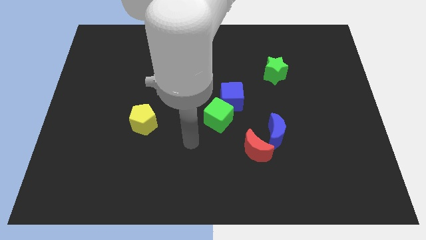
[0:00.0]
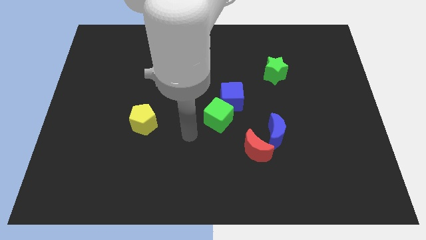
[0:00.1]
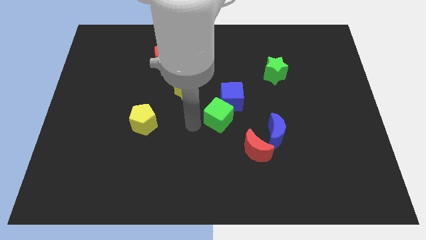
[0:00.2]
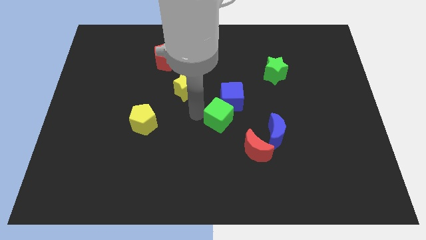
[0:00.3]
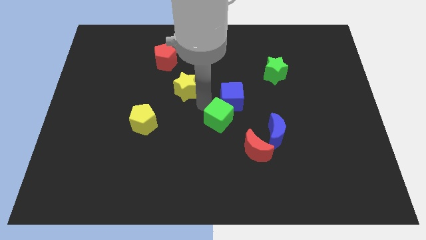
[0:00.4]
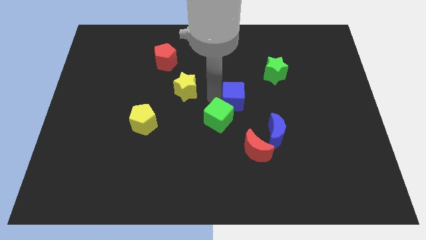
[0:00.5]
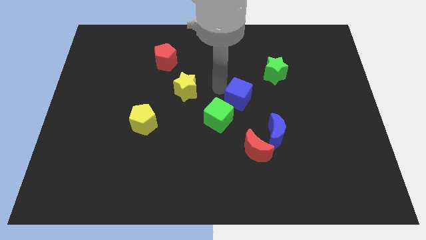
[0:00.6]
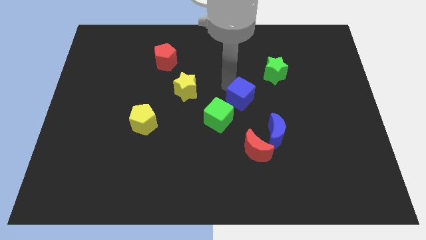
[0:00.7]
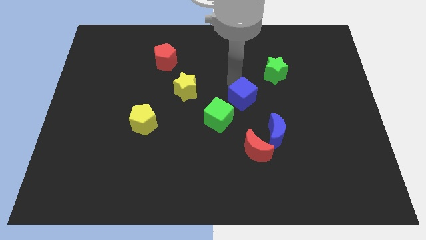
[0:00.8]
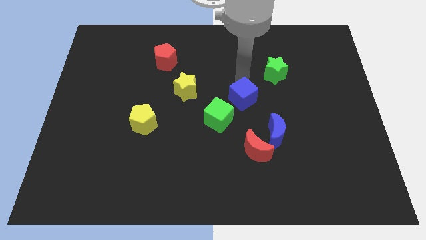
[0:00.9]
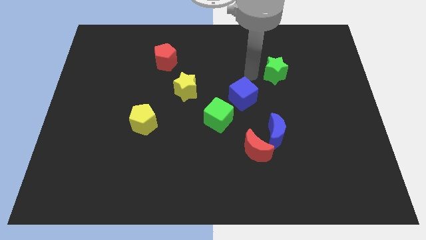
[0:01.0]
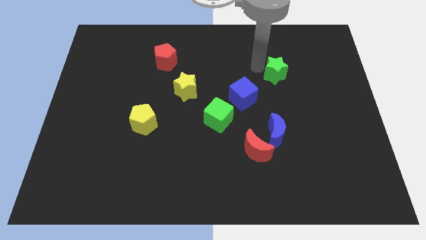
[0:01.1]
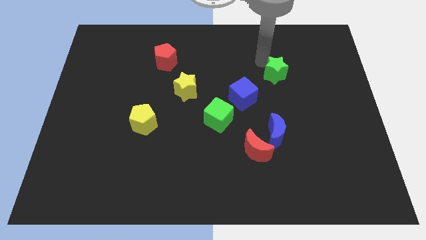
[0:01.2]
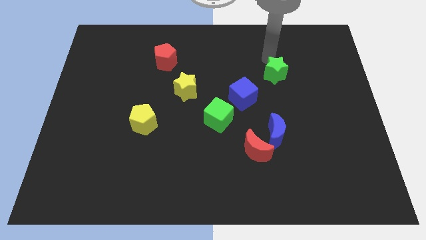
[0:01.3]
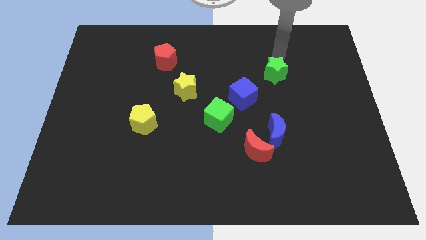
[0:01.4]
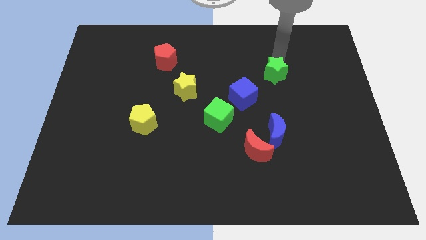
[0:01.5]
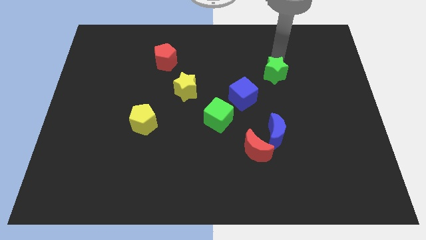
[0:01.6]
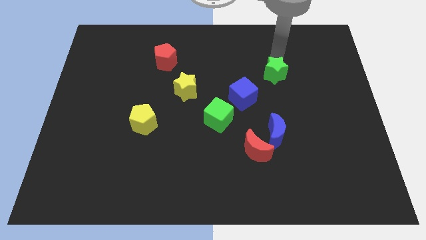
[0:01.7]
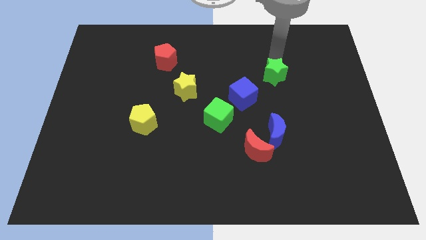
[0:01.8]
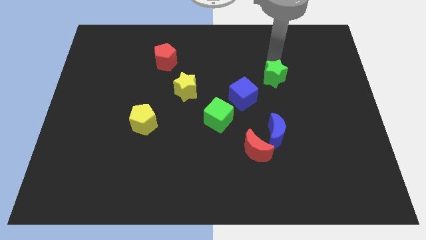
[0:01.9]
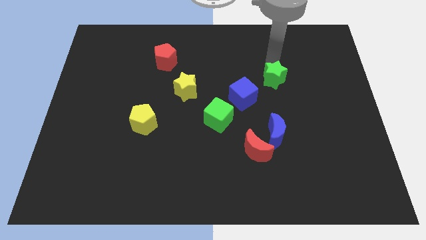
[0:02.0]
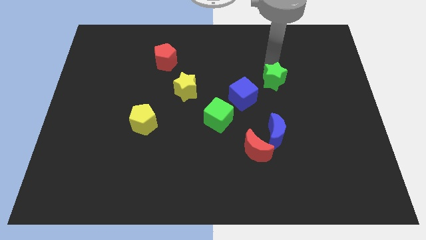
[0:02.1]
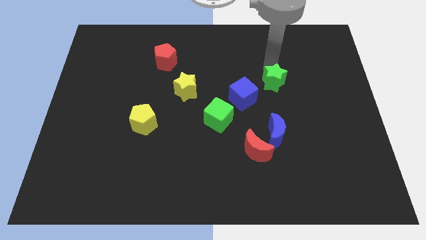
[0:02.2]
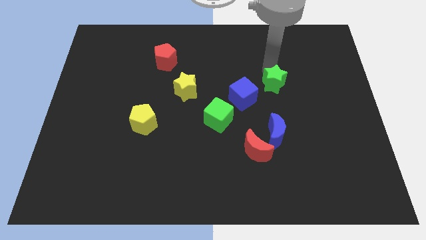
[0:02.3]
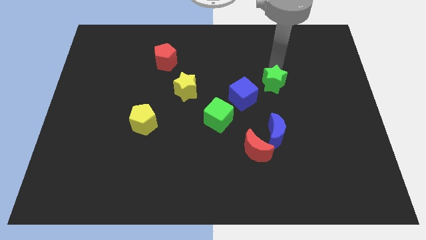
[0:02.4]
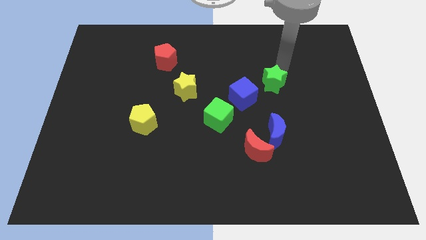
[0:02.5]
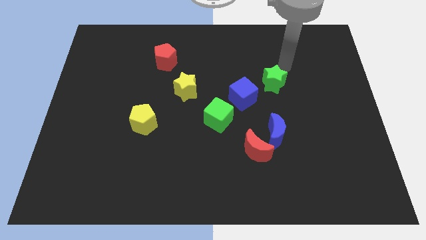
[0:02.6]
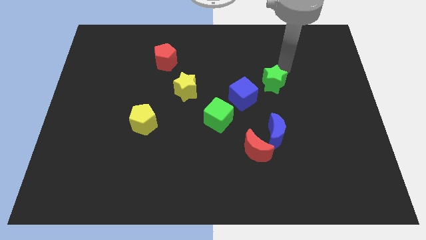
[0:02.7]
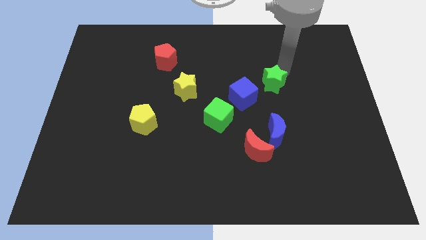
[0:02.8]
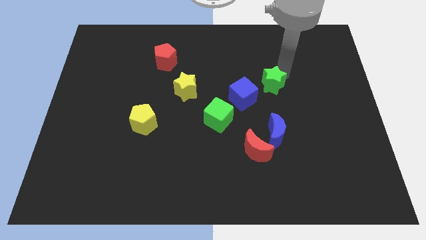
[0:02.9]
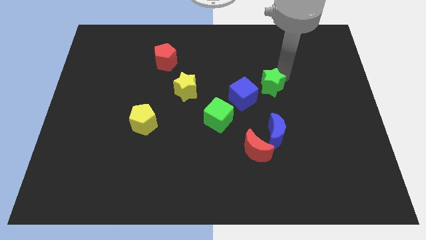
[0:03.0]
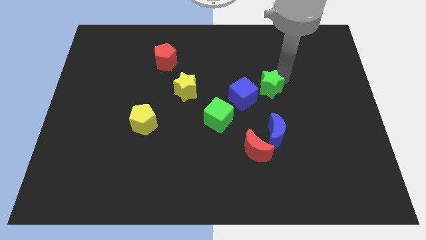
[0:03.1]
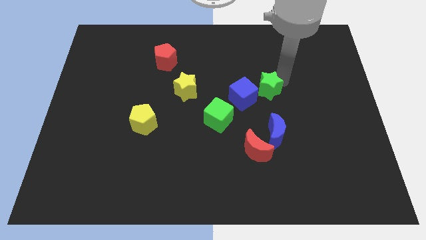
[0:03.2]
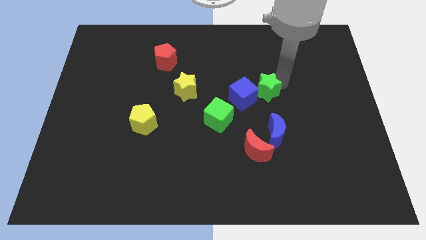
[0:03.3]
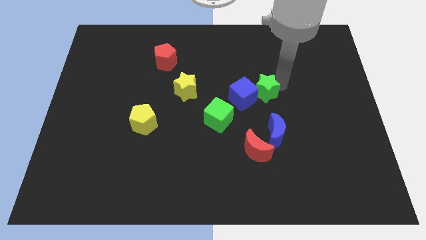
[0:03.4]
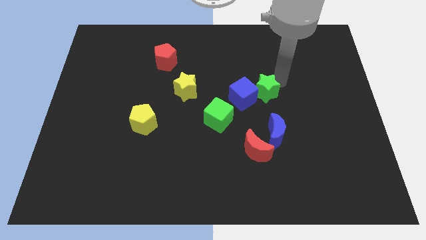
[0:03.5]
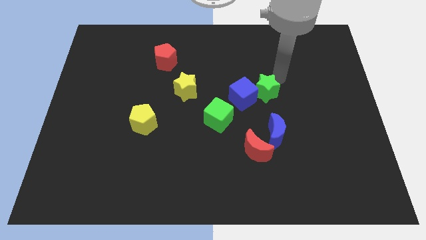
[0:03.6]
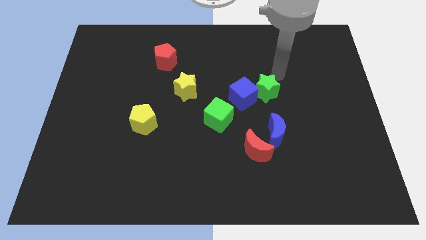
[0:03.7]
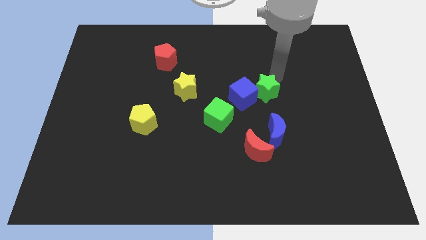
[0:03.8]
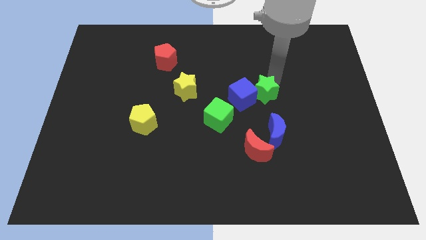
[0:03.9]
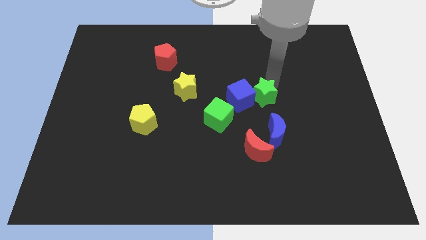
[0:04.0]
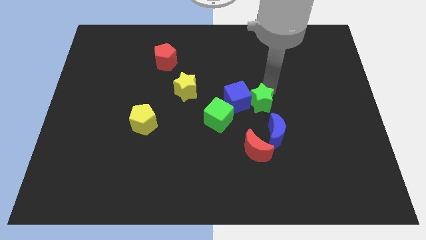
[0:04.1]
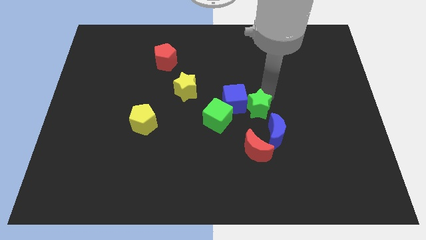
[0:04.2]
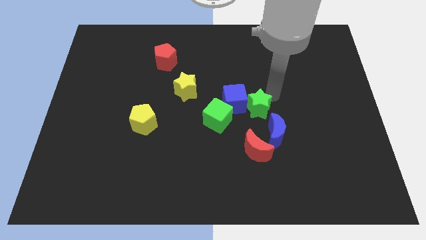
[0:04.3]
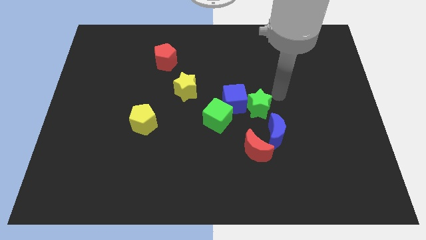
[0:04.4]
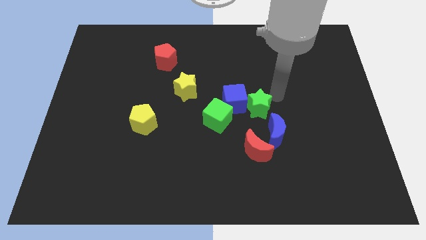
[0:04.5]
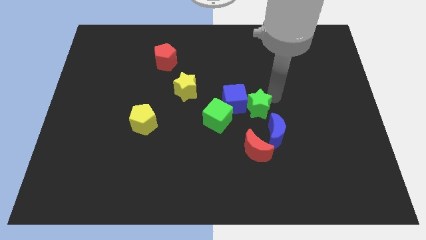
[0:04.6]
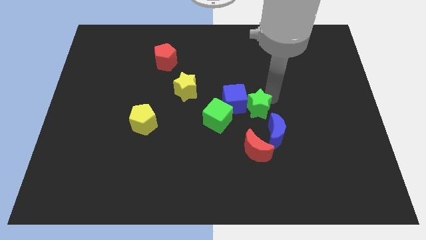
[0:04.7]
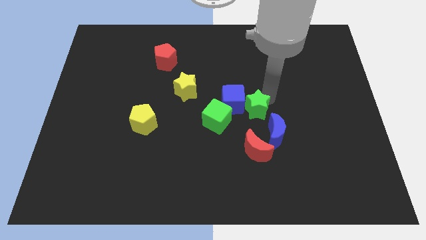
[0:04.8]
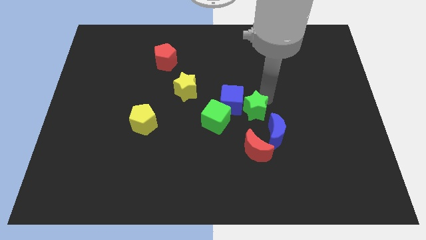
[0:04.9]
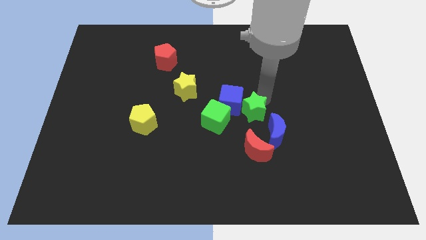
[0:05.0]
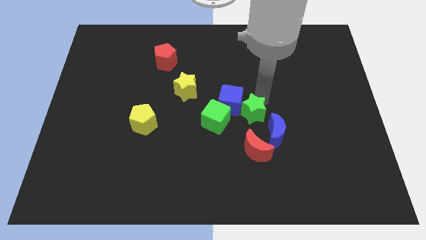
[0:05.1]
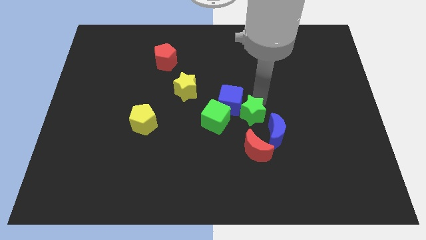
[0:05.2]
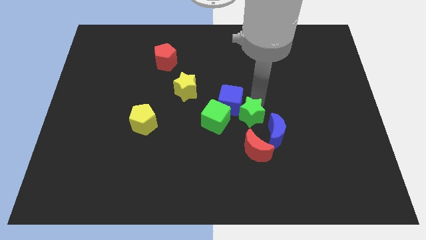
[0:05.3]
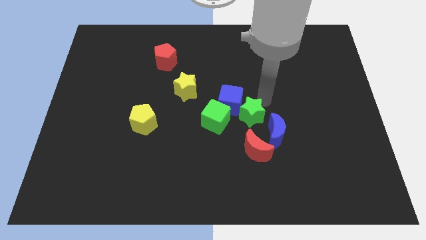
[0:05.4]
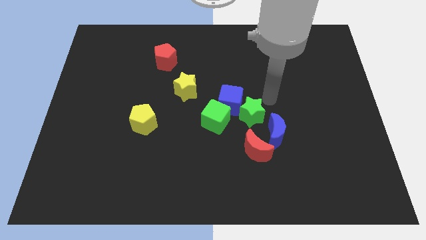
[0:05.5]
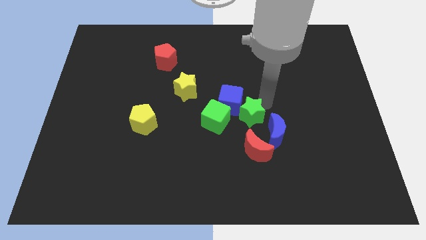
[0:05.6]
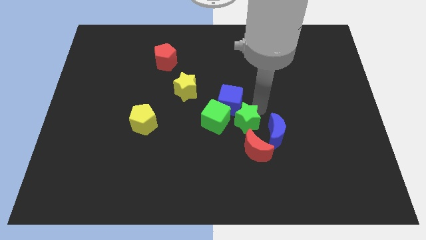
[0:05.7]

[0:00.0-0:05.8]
slide the green star just left of the blue moon

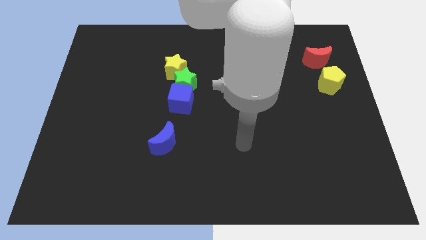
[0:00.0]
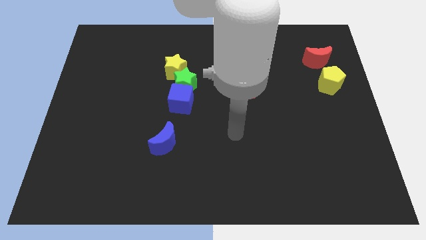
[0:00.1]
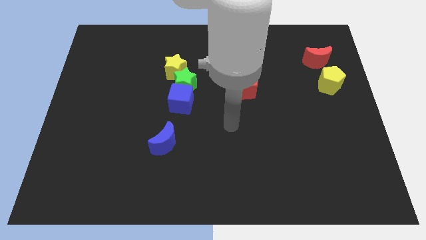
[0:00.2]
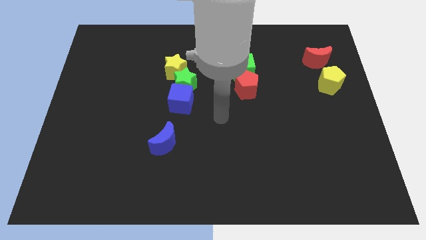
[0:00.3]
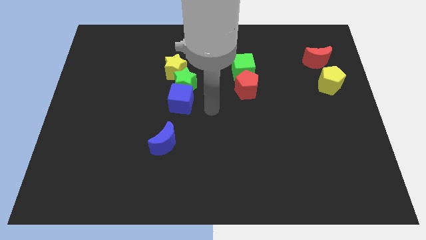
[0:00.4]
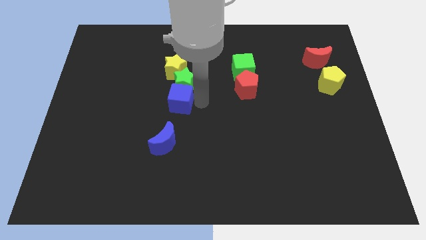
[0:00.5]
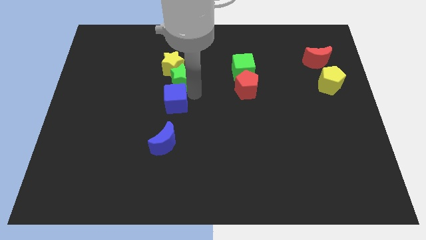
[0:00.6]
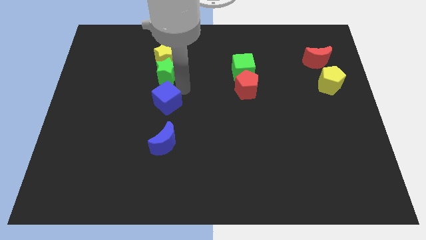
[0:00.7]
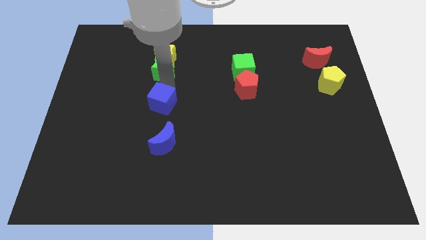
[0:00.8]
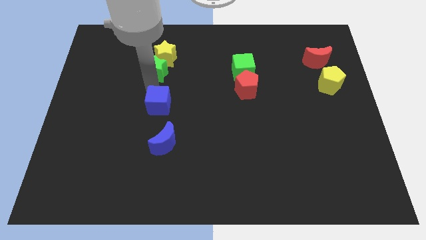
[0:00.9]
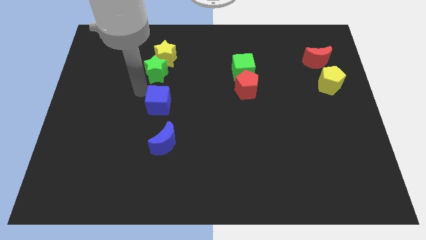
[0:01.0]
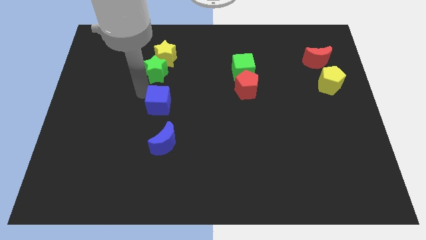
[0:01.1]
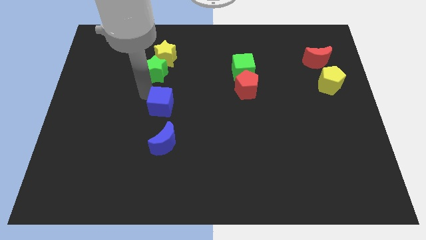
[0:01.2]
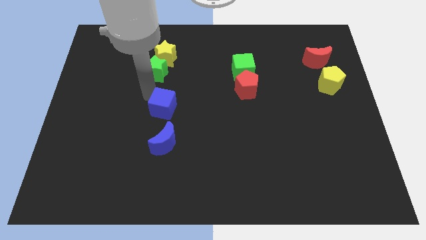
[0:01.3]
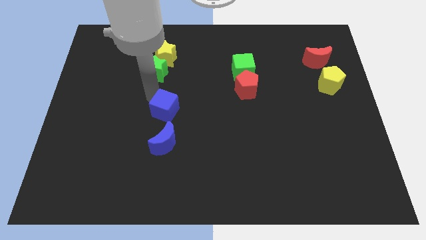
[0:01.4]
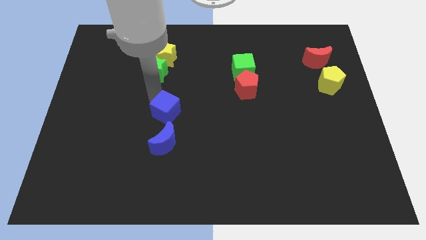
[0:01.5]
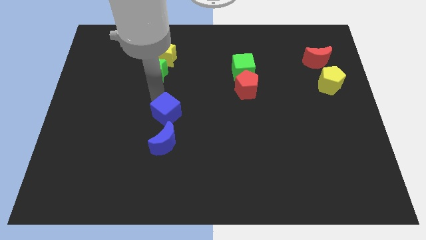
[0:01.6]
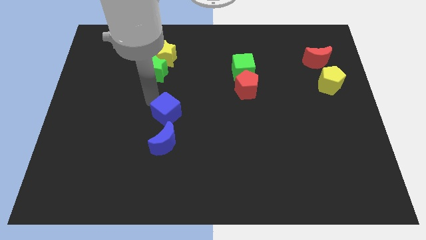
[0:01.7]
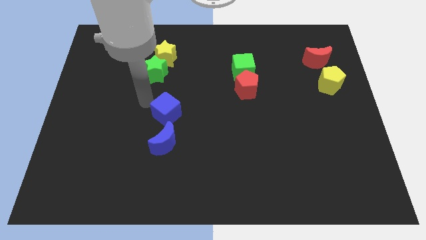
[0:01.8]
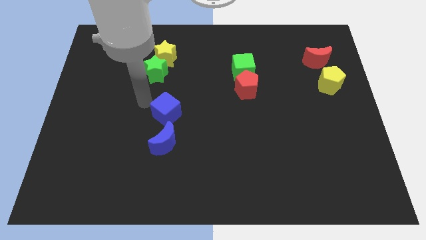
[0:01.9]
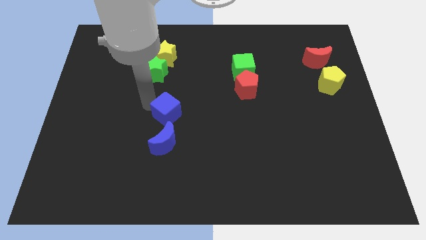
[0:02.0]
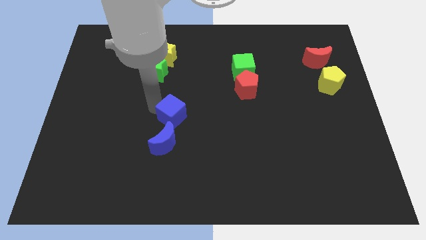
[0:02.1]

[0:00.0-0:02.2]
move the blue cube diagonally up and to the right of the blue moon
